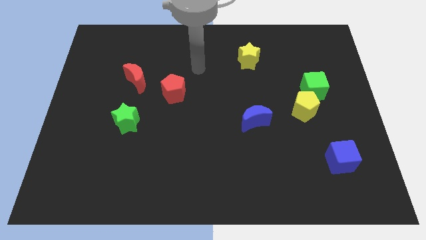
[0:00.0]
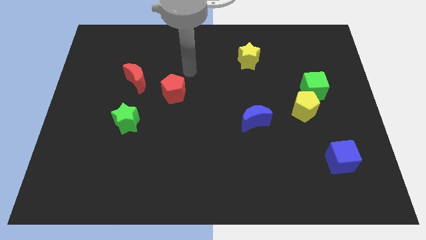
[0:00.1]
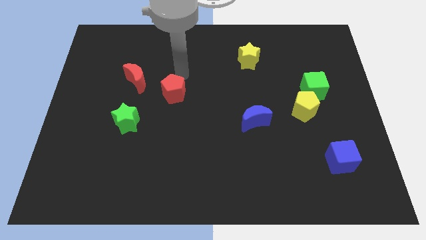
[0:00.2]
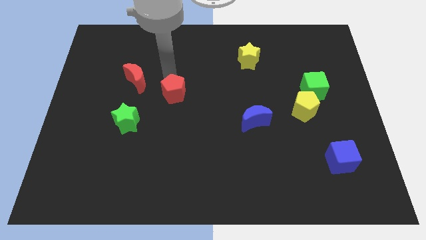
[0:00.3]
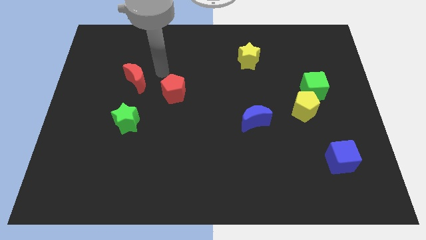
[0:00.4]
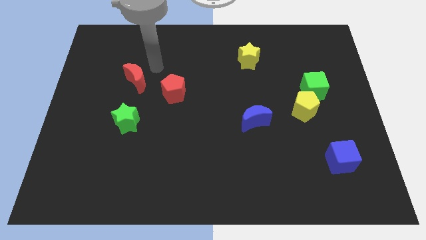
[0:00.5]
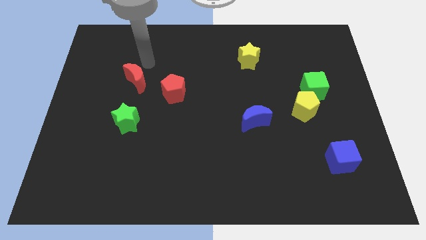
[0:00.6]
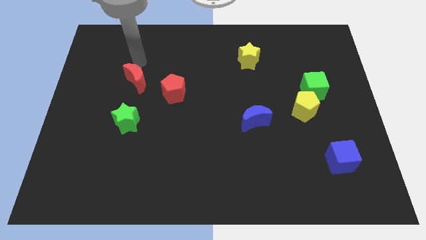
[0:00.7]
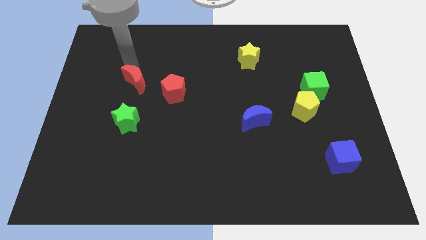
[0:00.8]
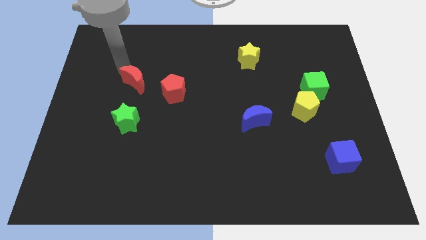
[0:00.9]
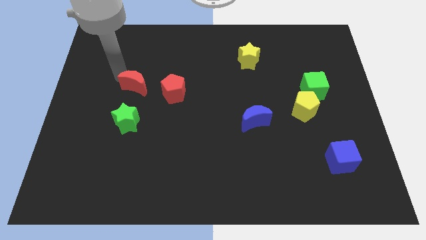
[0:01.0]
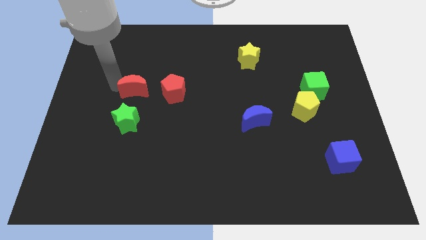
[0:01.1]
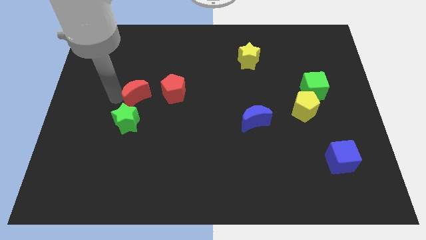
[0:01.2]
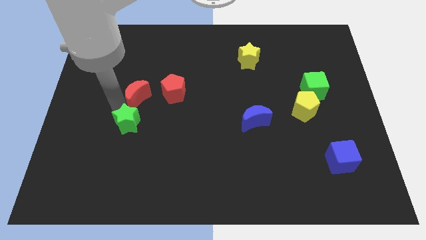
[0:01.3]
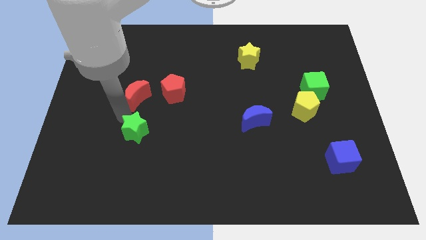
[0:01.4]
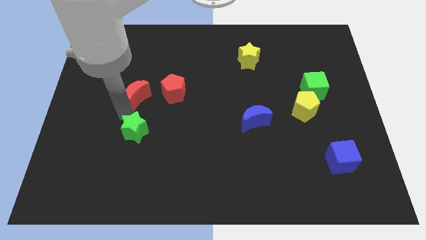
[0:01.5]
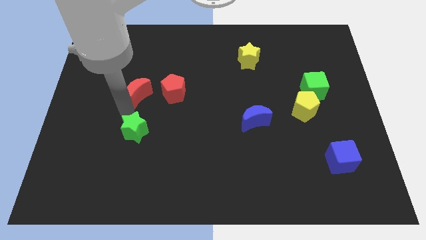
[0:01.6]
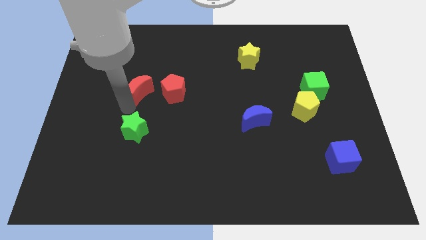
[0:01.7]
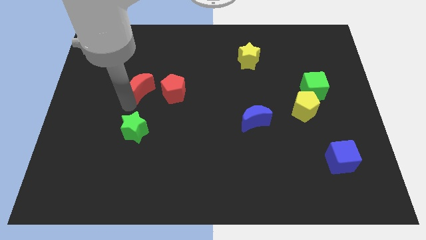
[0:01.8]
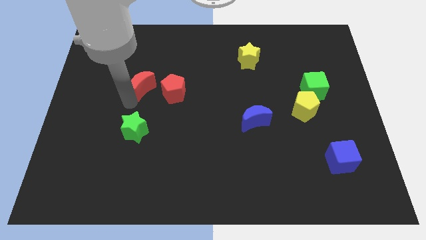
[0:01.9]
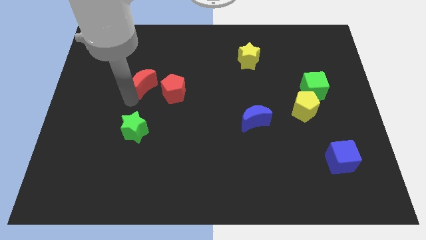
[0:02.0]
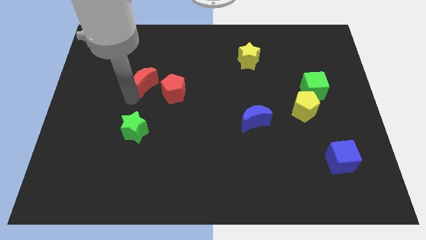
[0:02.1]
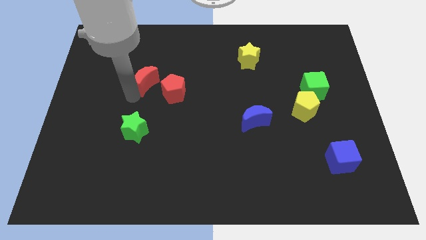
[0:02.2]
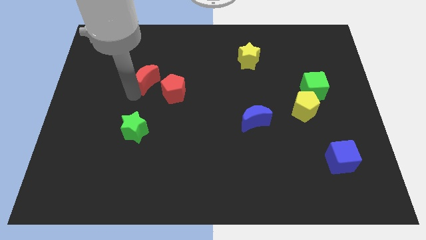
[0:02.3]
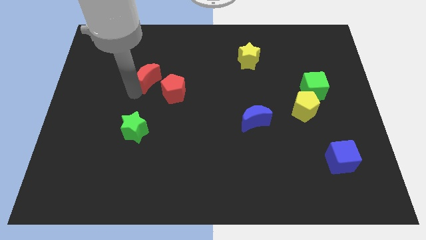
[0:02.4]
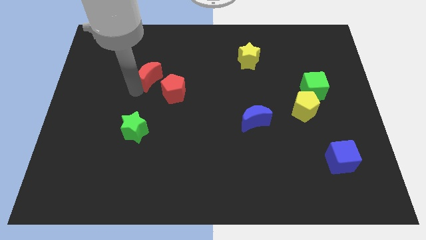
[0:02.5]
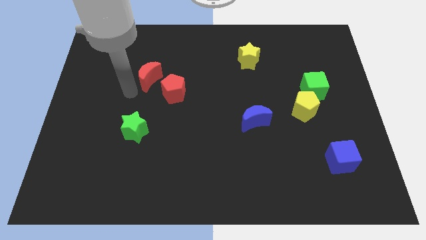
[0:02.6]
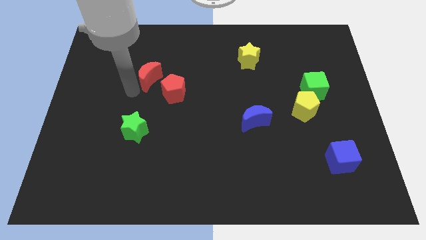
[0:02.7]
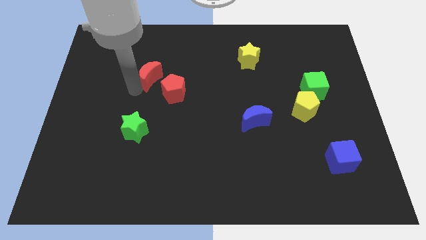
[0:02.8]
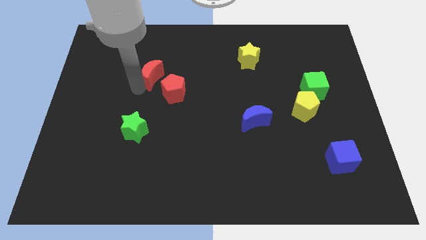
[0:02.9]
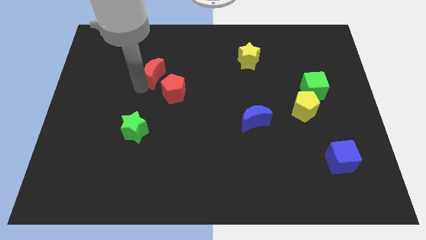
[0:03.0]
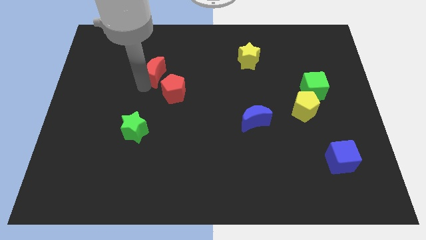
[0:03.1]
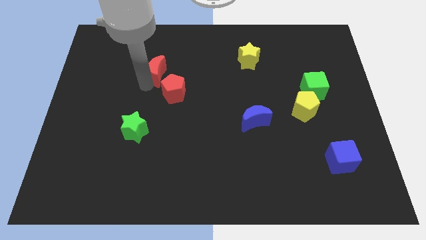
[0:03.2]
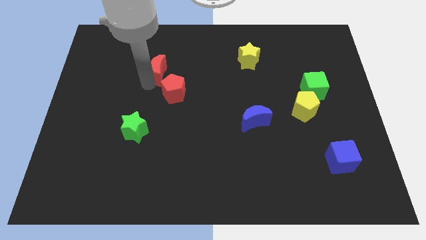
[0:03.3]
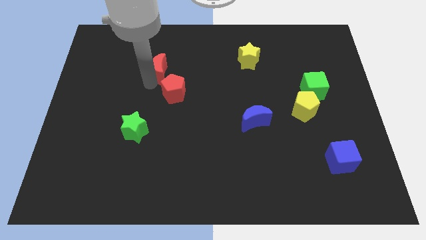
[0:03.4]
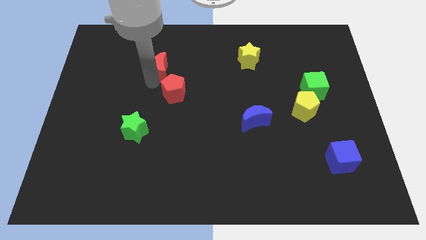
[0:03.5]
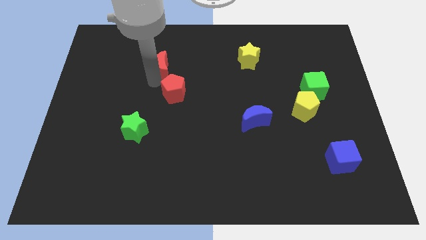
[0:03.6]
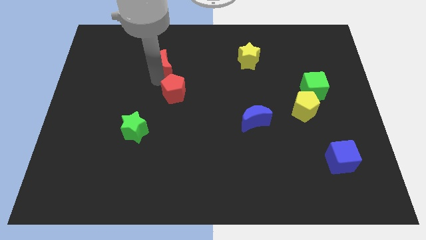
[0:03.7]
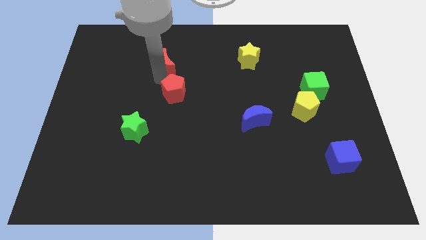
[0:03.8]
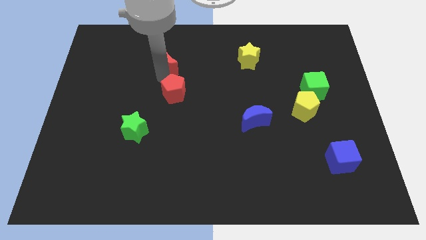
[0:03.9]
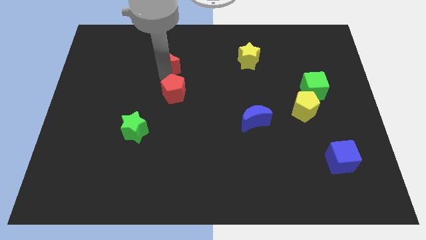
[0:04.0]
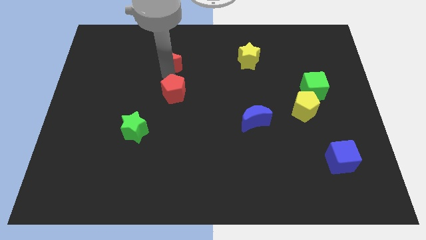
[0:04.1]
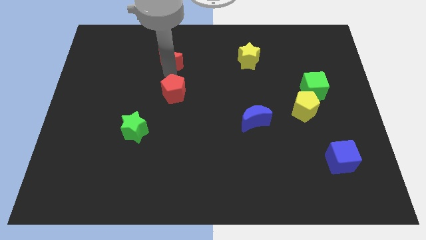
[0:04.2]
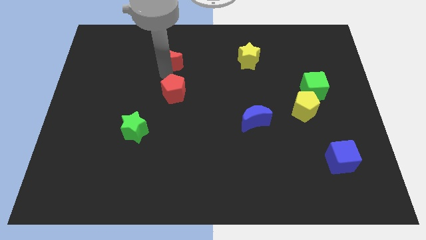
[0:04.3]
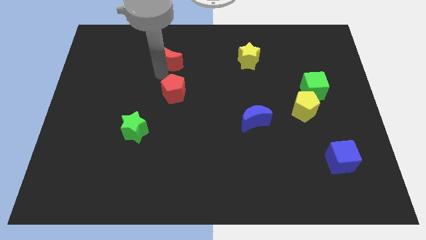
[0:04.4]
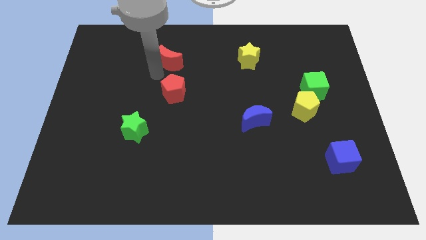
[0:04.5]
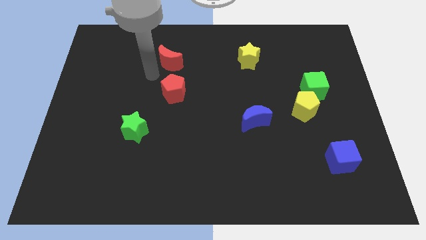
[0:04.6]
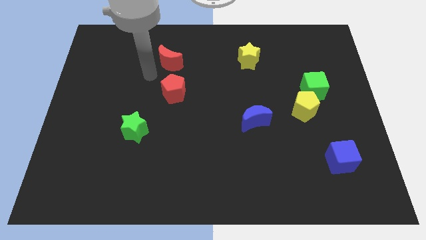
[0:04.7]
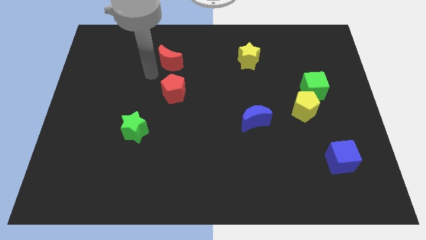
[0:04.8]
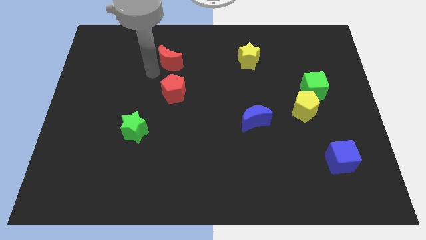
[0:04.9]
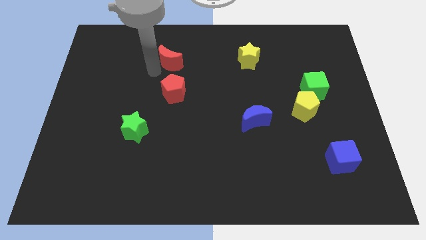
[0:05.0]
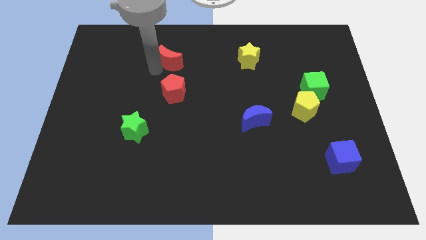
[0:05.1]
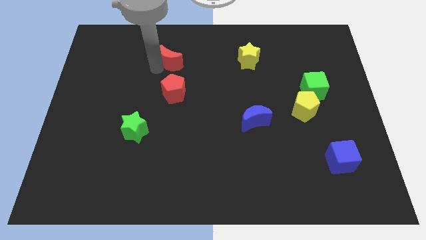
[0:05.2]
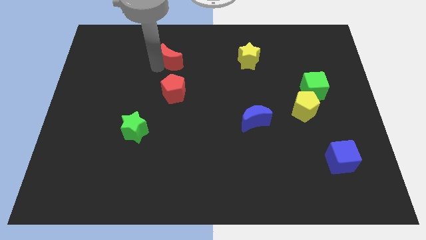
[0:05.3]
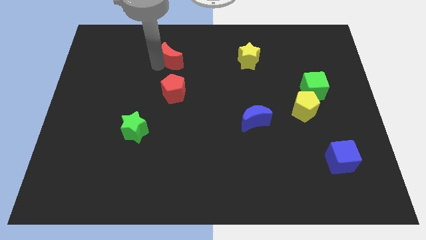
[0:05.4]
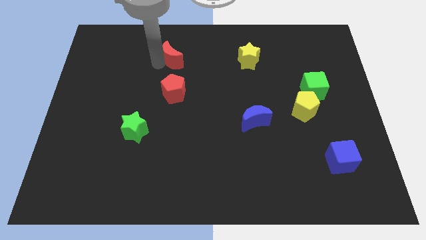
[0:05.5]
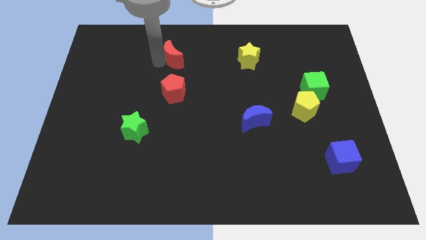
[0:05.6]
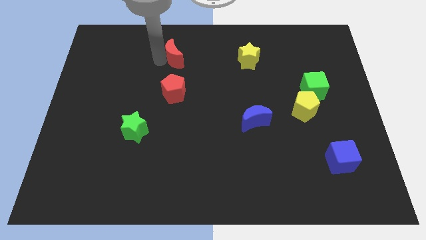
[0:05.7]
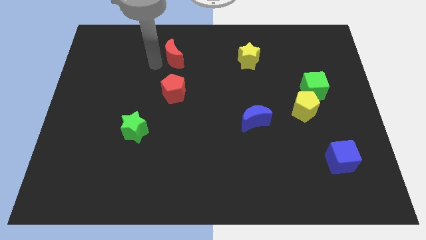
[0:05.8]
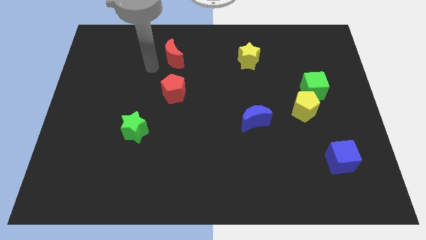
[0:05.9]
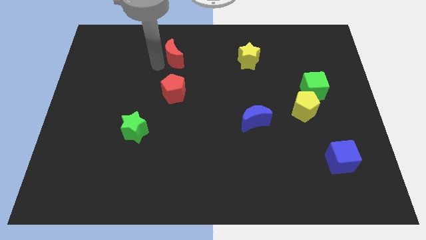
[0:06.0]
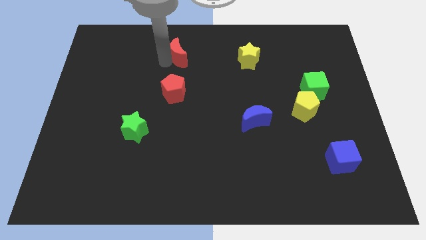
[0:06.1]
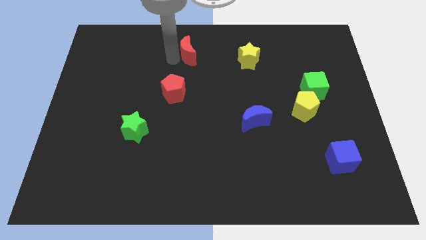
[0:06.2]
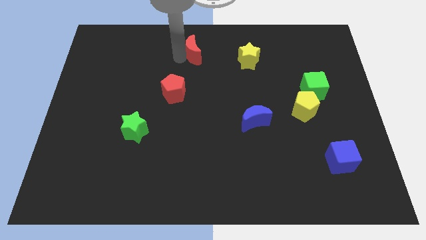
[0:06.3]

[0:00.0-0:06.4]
put the red moon to the top side
